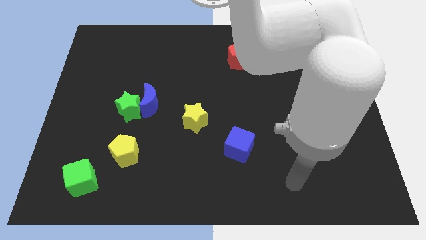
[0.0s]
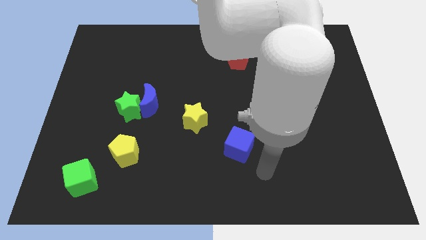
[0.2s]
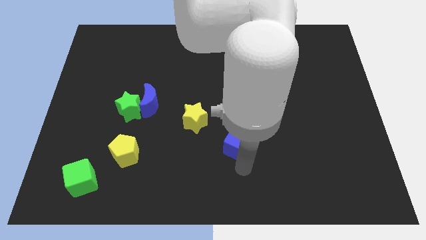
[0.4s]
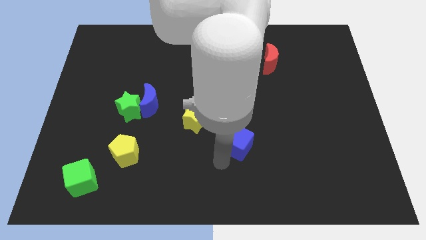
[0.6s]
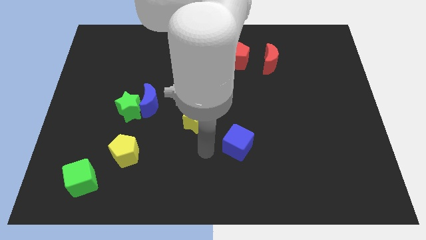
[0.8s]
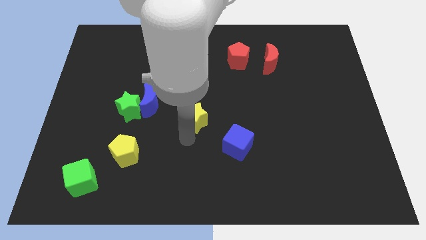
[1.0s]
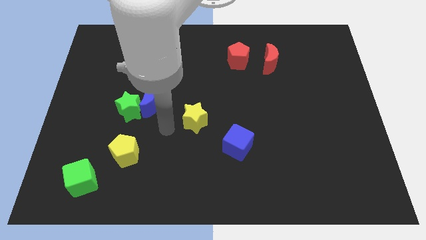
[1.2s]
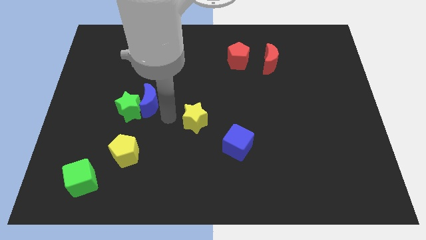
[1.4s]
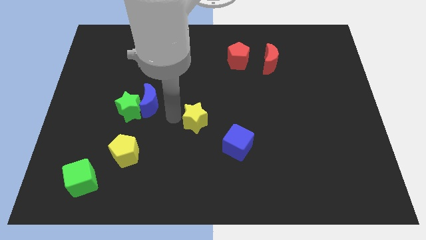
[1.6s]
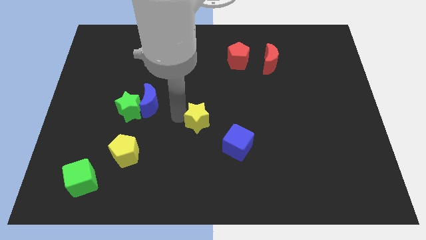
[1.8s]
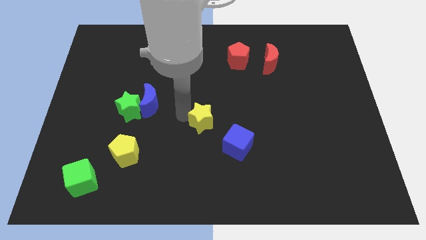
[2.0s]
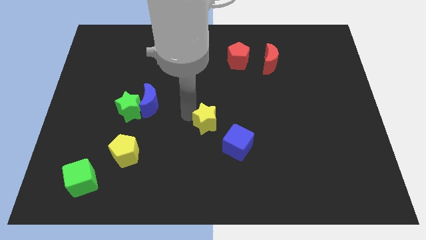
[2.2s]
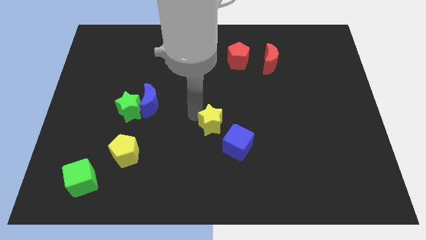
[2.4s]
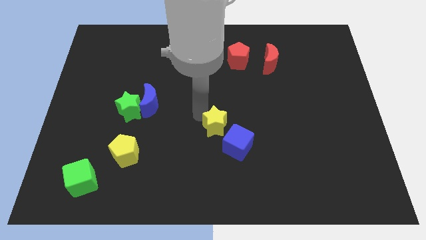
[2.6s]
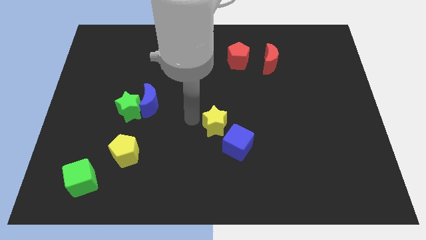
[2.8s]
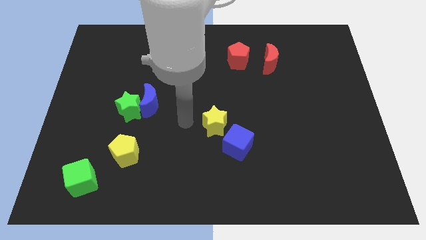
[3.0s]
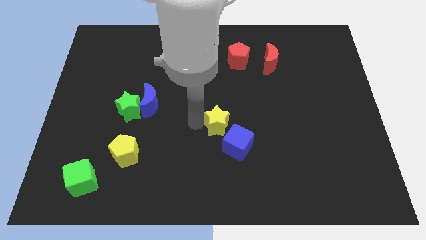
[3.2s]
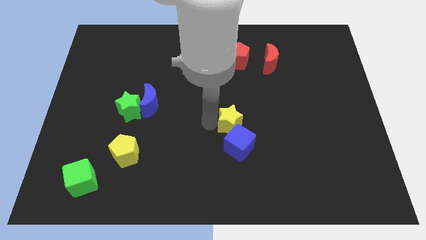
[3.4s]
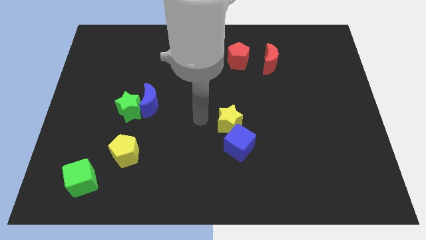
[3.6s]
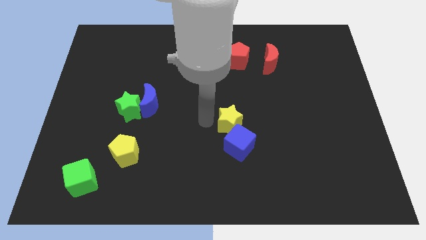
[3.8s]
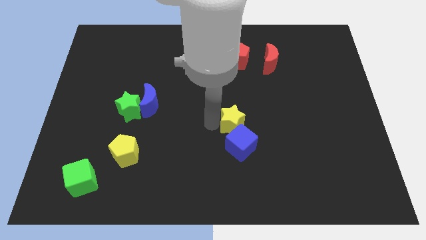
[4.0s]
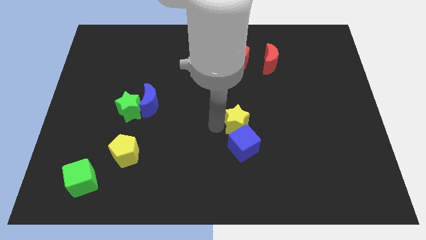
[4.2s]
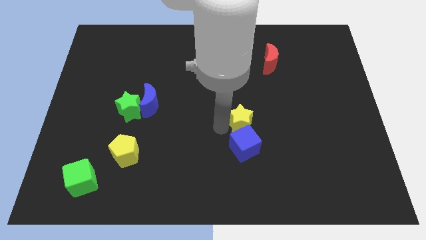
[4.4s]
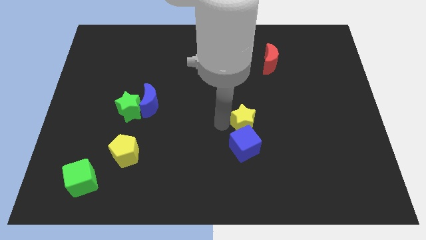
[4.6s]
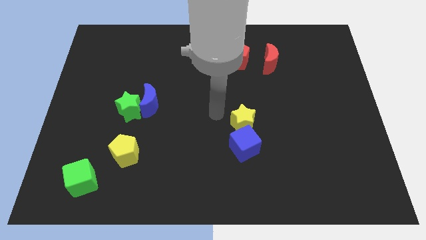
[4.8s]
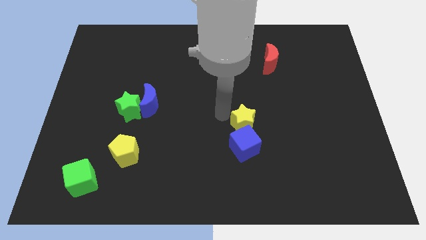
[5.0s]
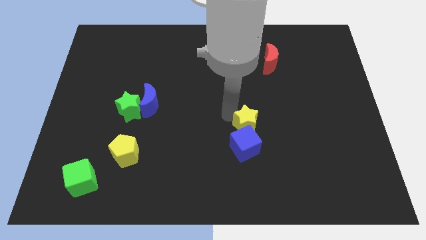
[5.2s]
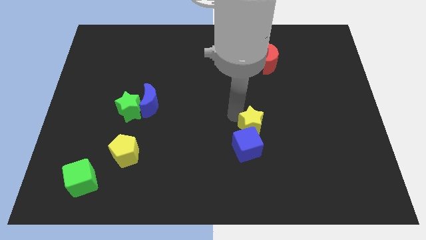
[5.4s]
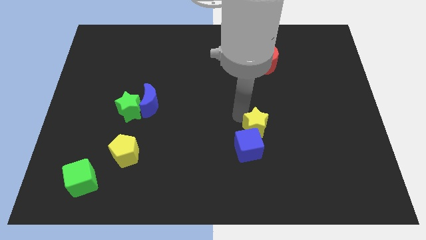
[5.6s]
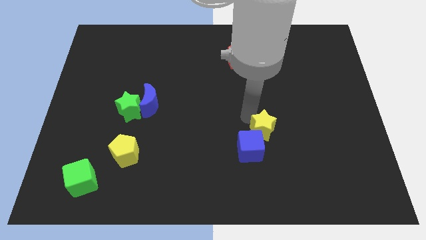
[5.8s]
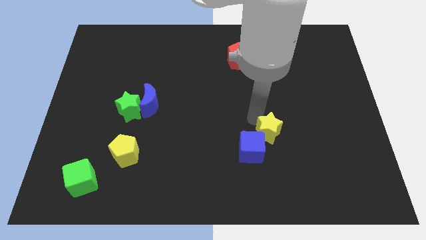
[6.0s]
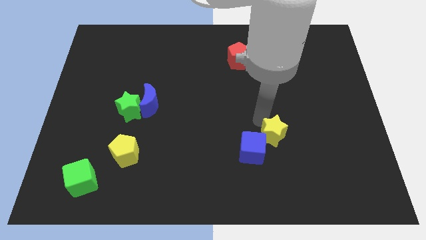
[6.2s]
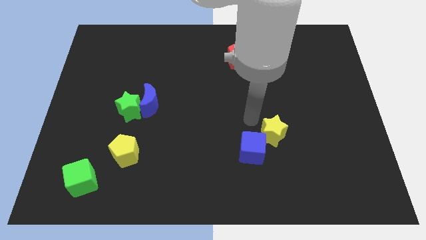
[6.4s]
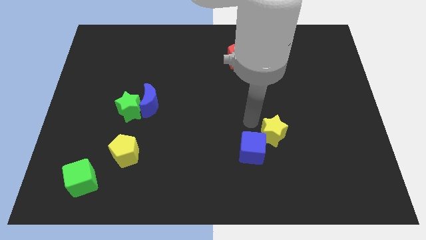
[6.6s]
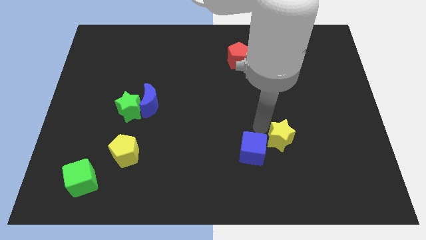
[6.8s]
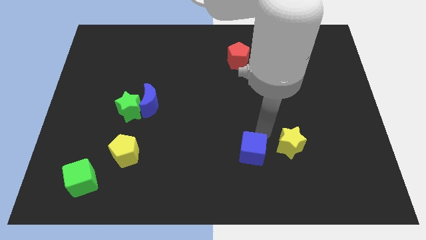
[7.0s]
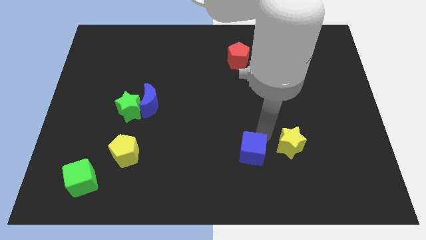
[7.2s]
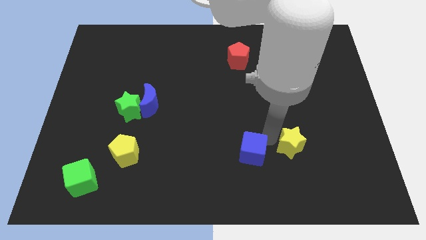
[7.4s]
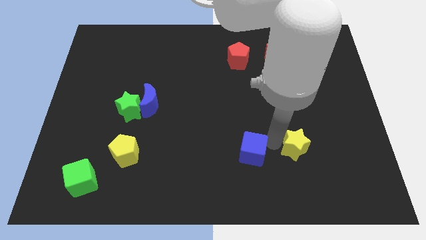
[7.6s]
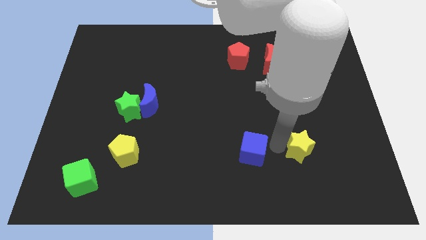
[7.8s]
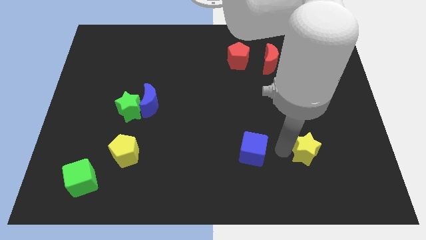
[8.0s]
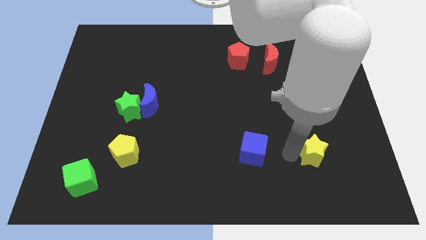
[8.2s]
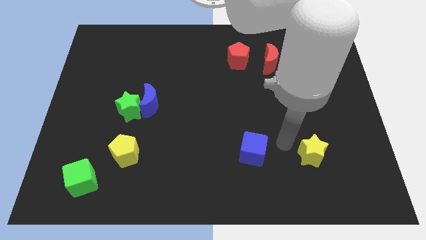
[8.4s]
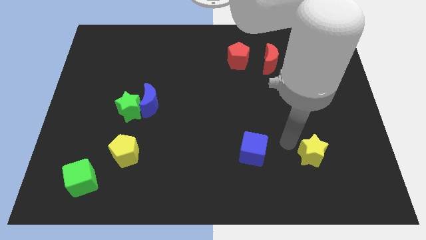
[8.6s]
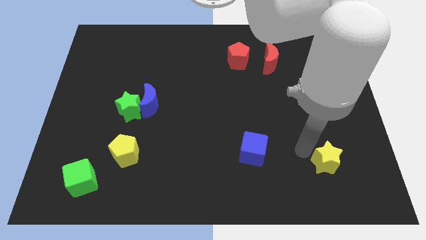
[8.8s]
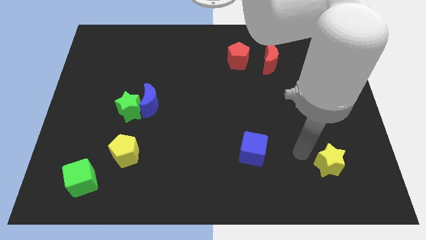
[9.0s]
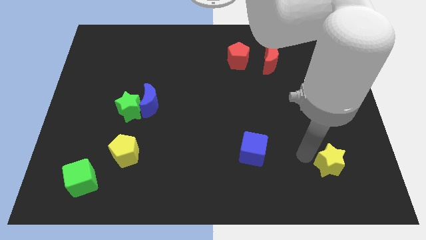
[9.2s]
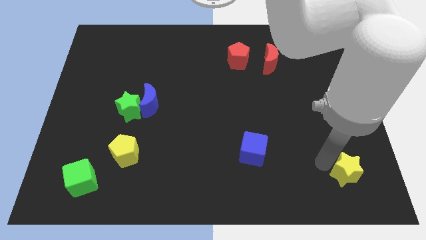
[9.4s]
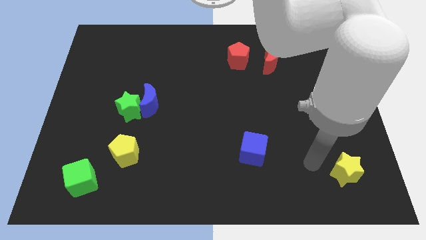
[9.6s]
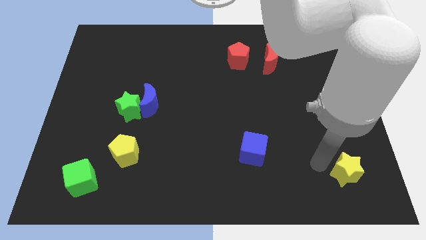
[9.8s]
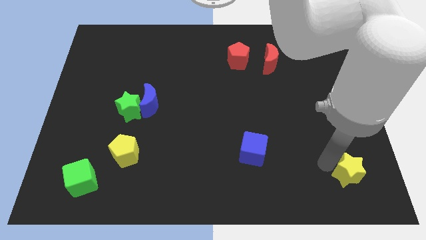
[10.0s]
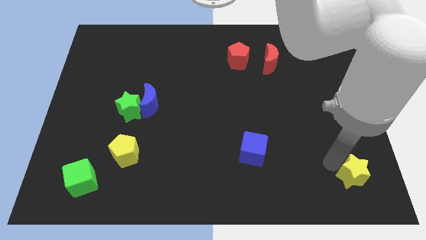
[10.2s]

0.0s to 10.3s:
move the yellow star to the bottom right corner

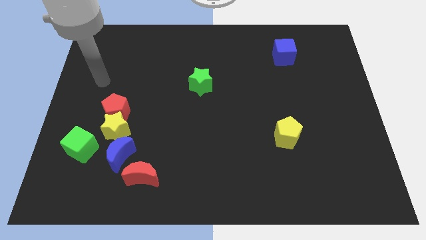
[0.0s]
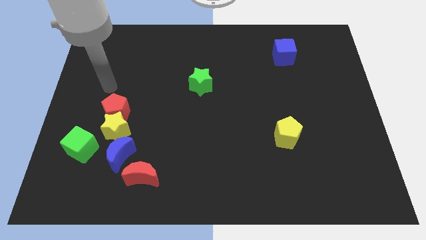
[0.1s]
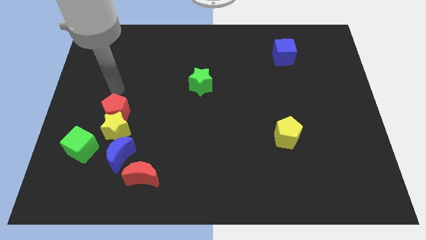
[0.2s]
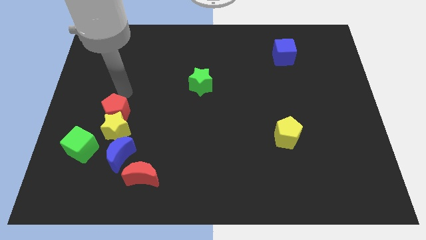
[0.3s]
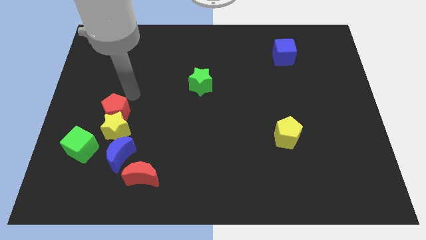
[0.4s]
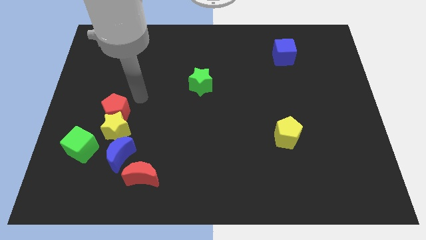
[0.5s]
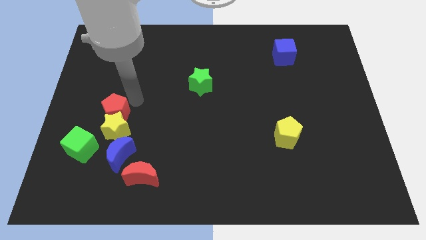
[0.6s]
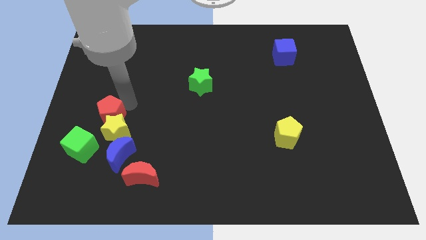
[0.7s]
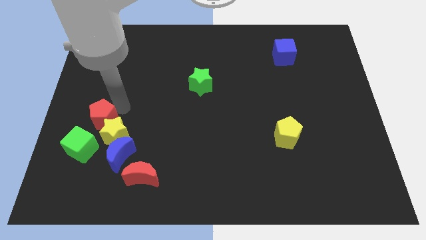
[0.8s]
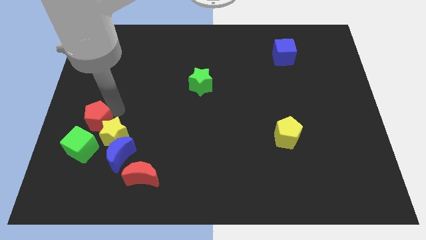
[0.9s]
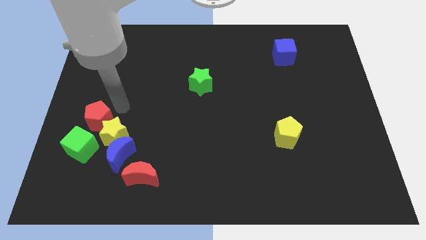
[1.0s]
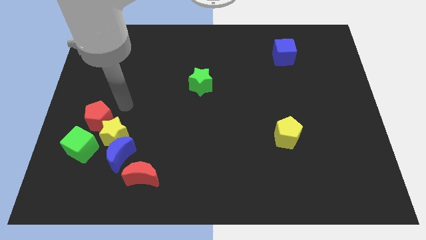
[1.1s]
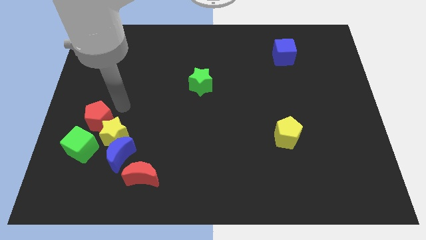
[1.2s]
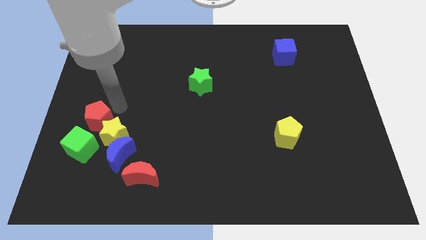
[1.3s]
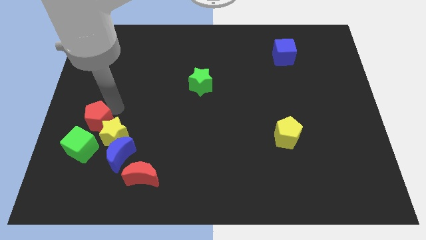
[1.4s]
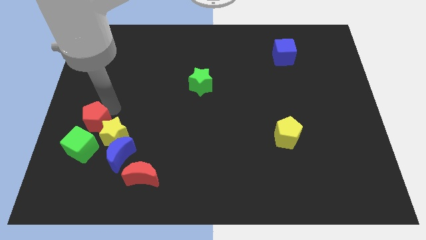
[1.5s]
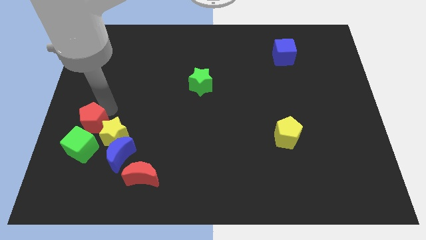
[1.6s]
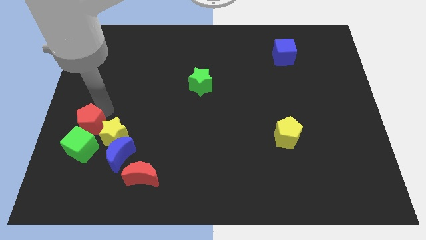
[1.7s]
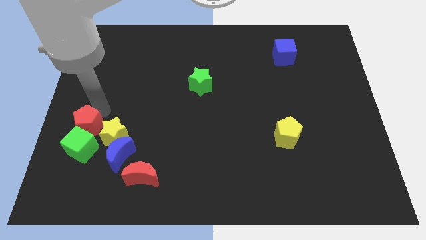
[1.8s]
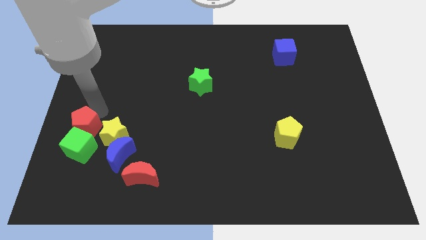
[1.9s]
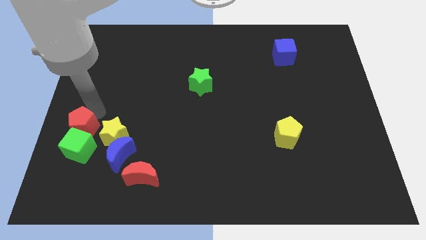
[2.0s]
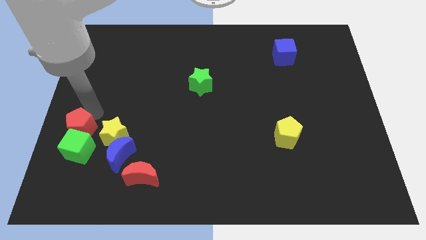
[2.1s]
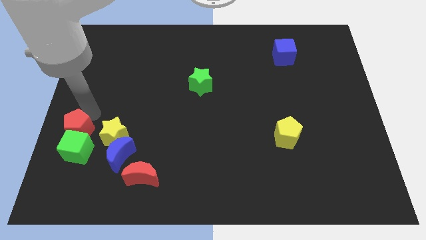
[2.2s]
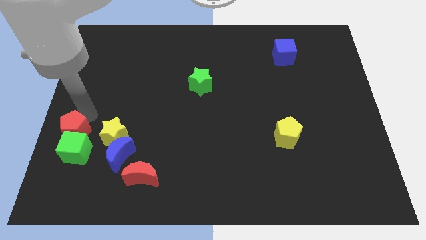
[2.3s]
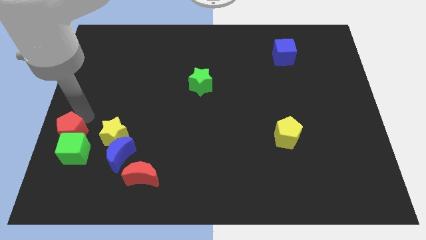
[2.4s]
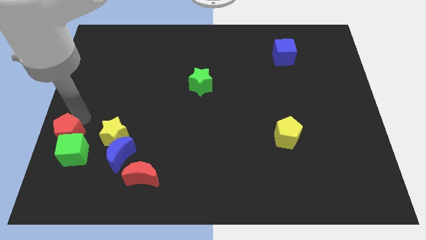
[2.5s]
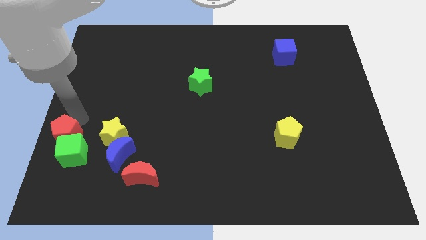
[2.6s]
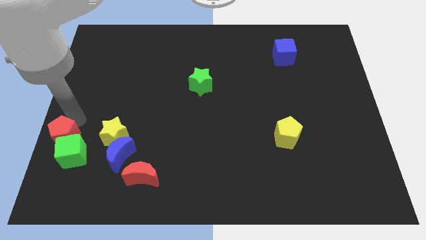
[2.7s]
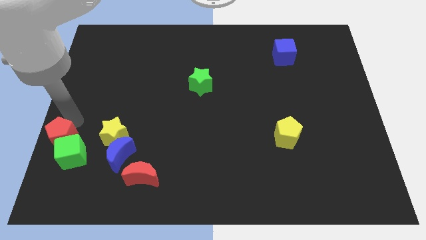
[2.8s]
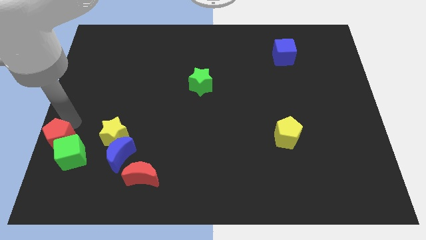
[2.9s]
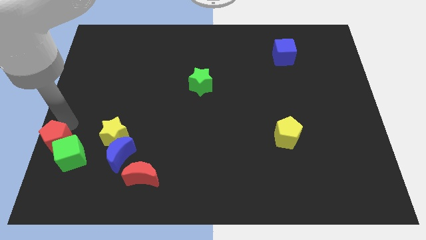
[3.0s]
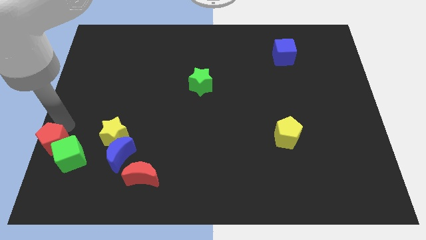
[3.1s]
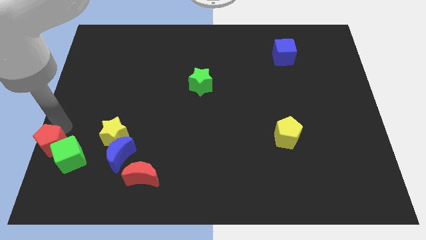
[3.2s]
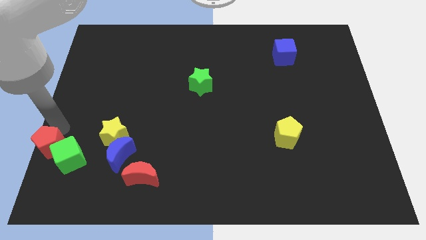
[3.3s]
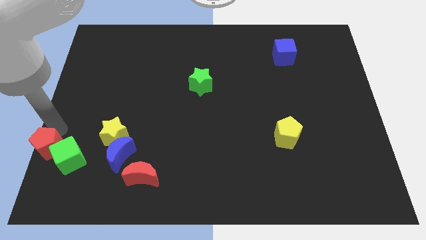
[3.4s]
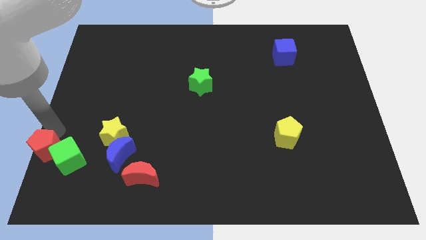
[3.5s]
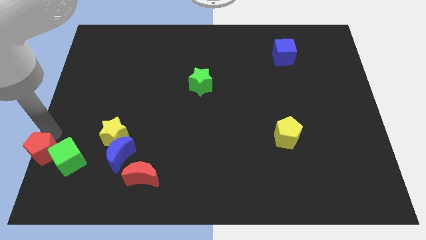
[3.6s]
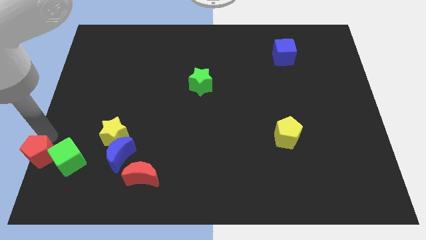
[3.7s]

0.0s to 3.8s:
slide the red pentagon to the lower left corner
